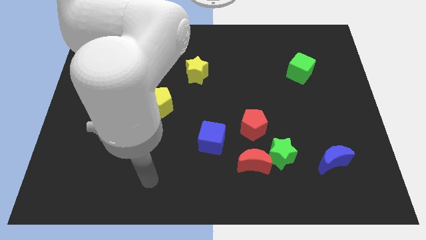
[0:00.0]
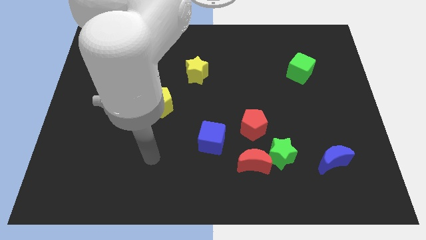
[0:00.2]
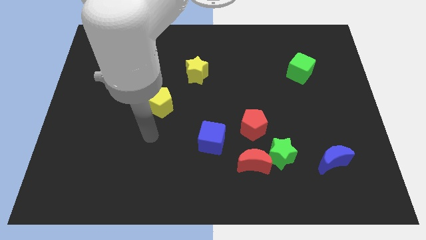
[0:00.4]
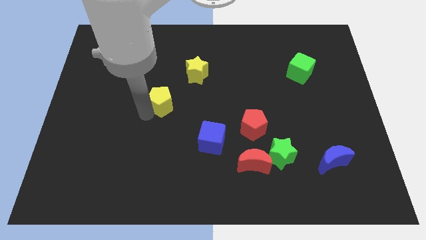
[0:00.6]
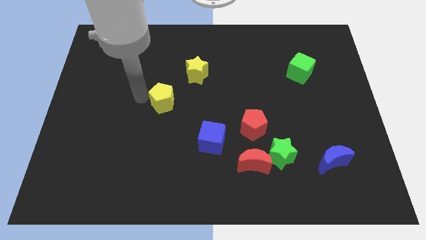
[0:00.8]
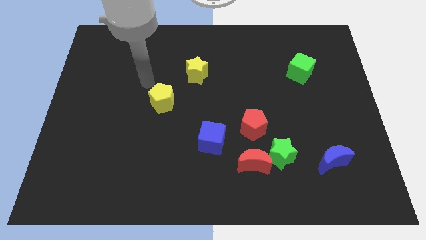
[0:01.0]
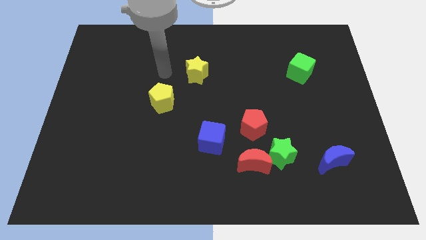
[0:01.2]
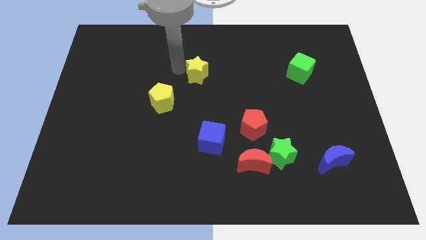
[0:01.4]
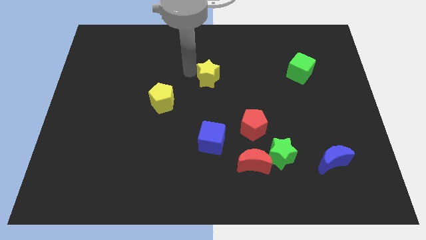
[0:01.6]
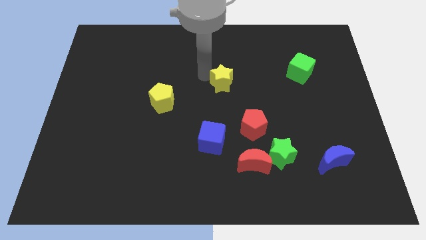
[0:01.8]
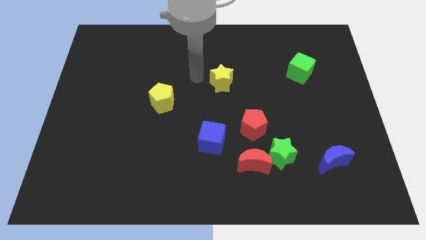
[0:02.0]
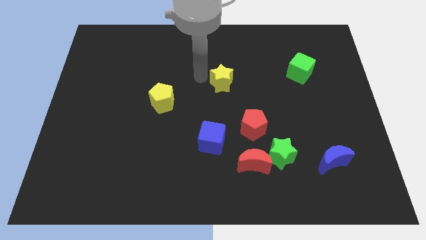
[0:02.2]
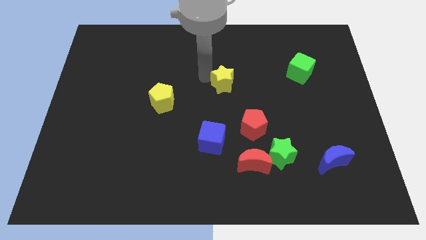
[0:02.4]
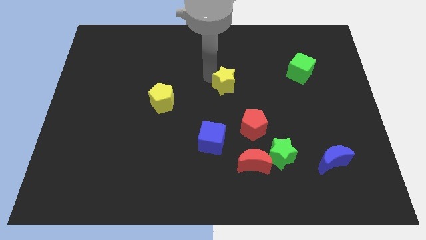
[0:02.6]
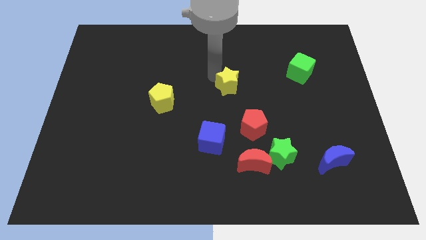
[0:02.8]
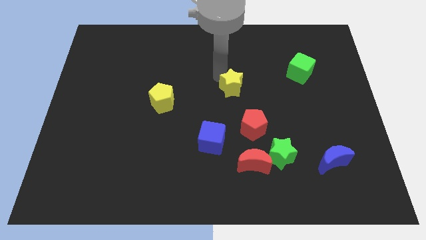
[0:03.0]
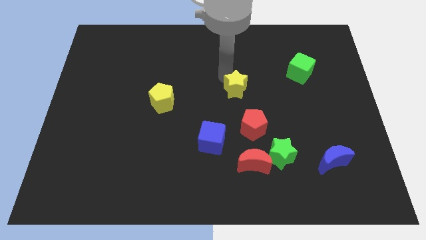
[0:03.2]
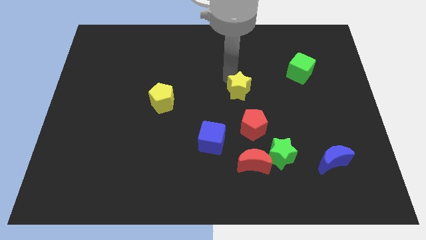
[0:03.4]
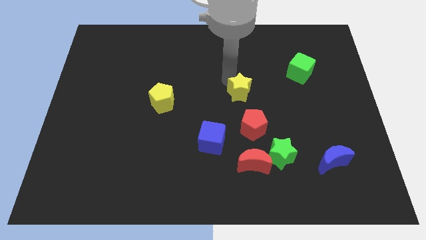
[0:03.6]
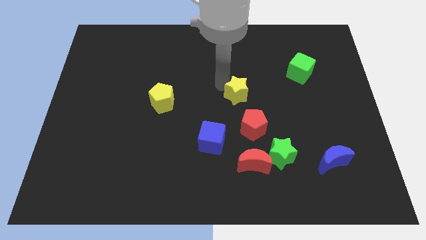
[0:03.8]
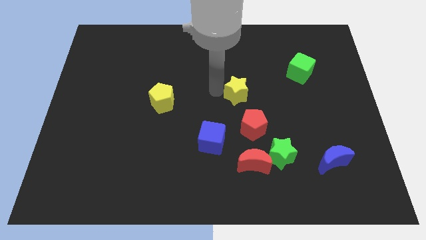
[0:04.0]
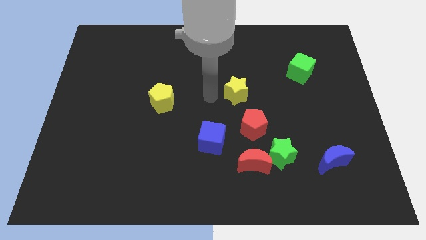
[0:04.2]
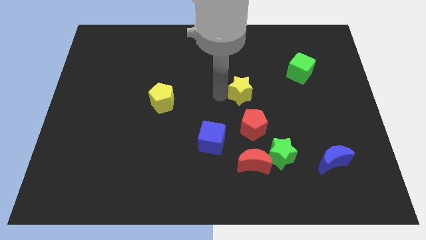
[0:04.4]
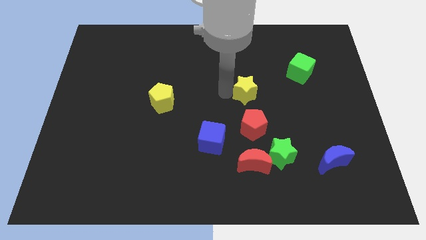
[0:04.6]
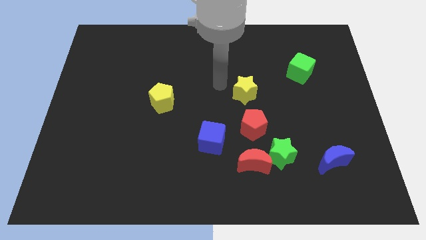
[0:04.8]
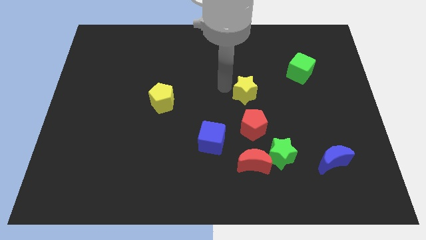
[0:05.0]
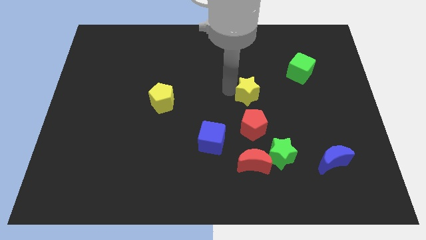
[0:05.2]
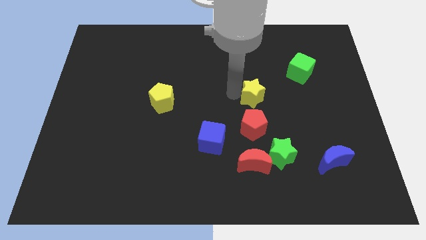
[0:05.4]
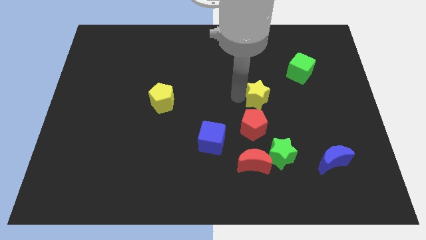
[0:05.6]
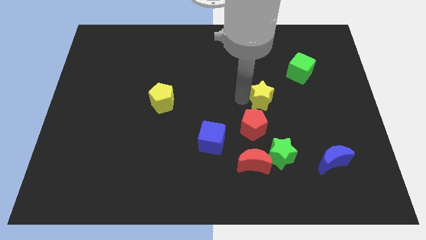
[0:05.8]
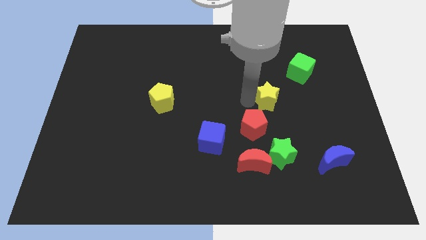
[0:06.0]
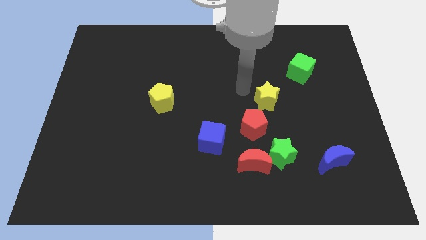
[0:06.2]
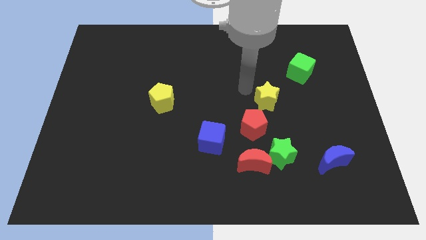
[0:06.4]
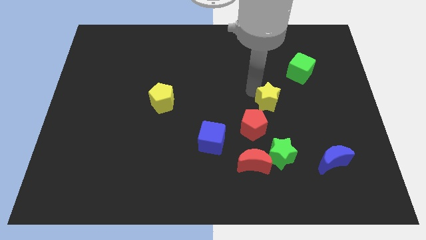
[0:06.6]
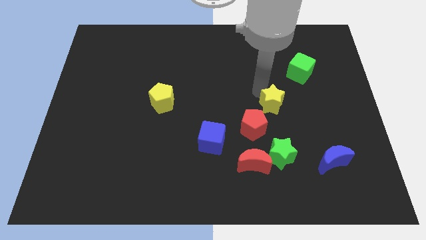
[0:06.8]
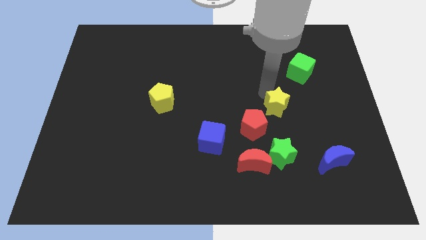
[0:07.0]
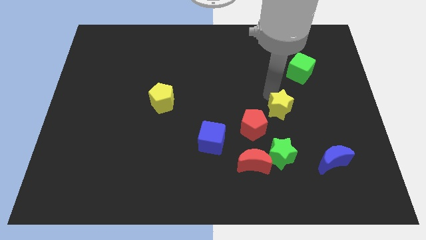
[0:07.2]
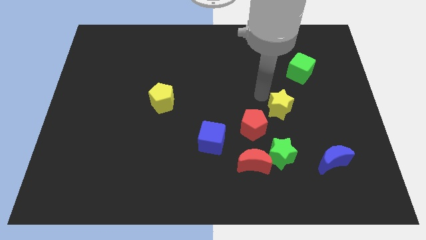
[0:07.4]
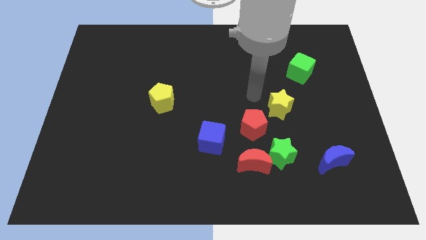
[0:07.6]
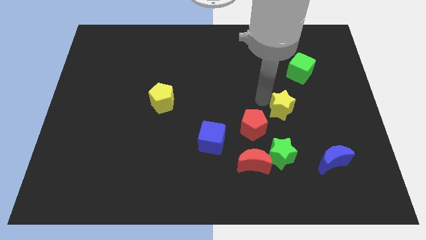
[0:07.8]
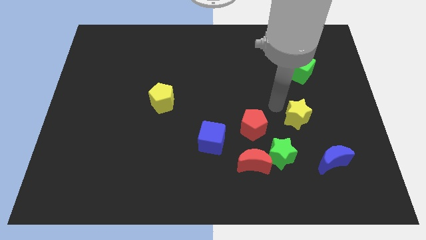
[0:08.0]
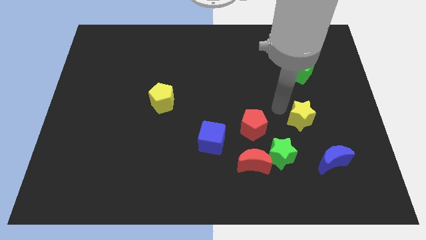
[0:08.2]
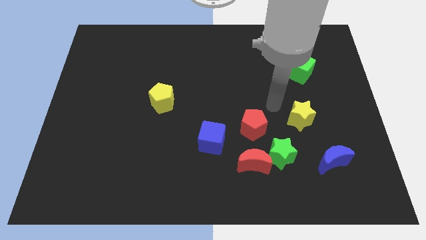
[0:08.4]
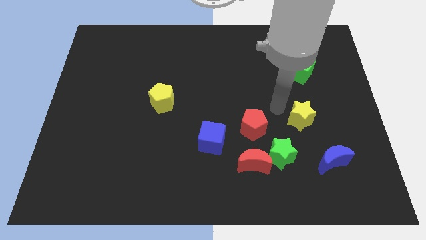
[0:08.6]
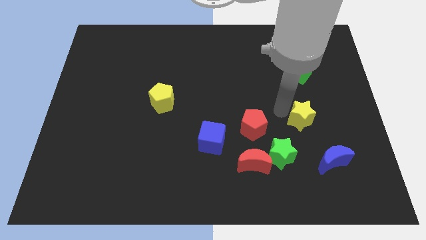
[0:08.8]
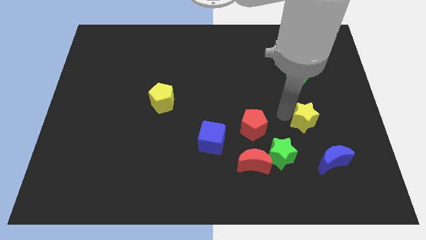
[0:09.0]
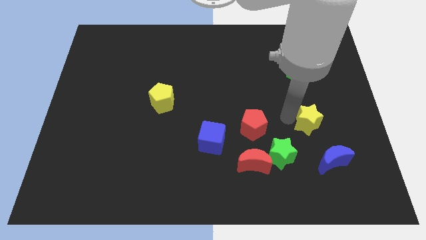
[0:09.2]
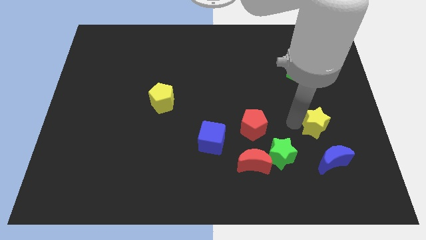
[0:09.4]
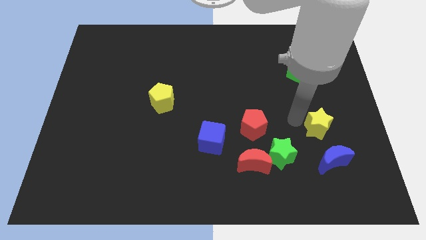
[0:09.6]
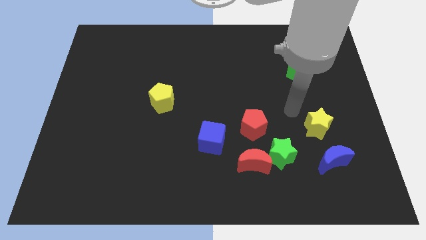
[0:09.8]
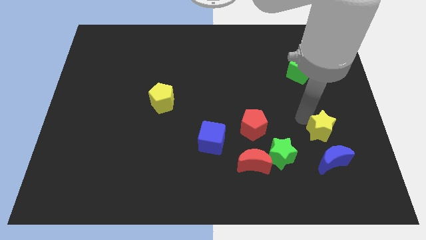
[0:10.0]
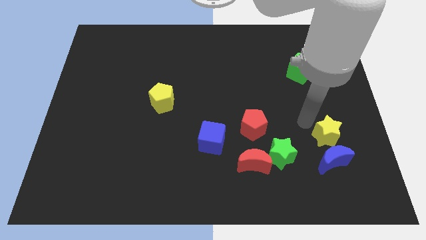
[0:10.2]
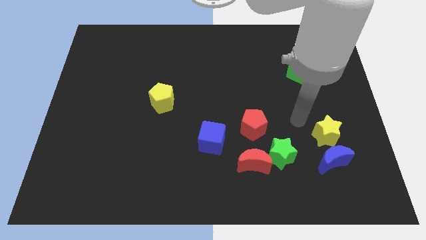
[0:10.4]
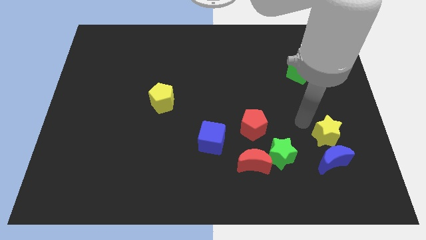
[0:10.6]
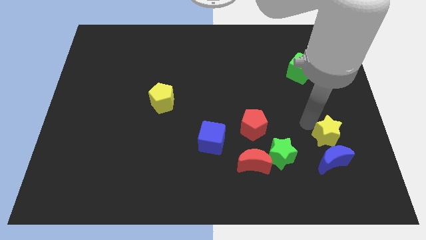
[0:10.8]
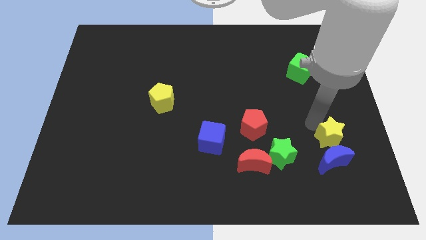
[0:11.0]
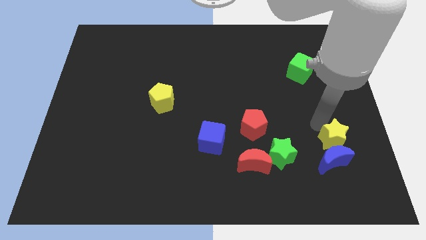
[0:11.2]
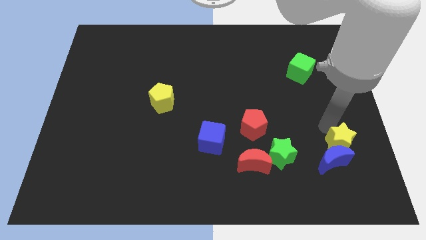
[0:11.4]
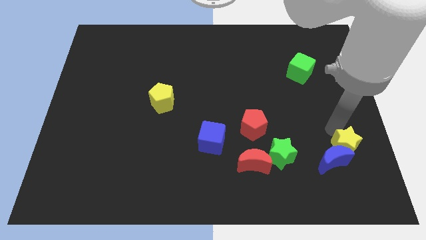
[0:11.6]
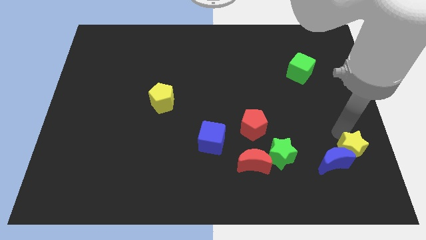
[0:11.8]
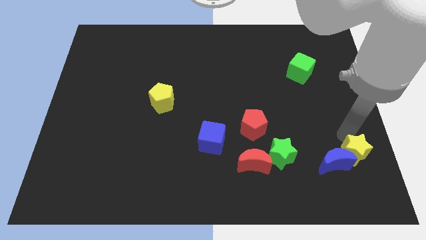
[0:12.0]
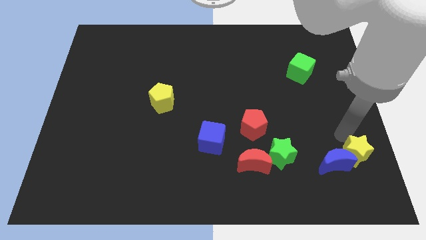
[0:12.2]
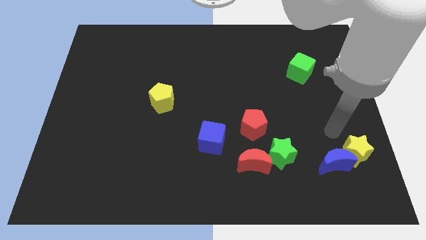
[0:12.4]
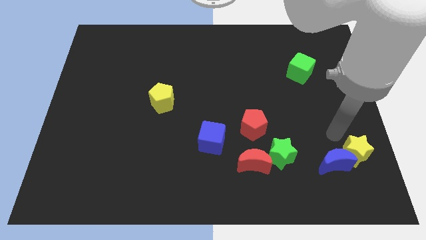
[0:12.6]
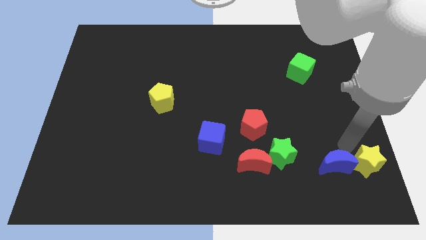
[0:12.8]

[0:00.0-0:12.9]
slide the yellow star to the bottom right of the board

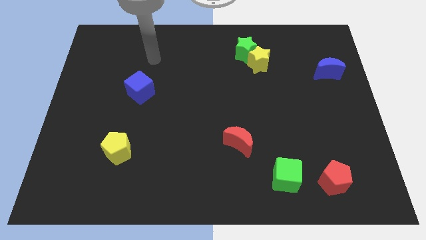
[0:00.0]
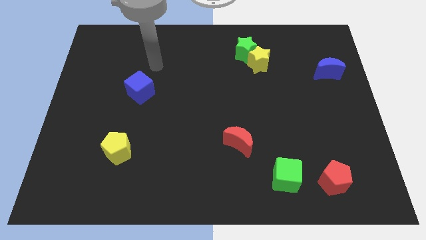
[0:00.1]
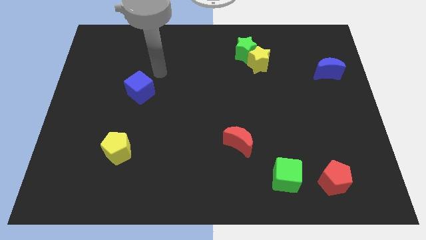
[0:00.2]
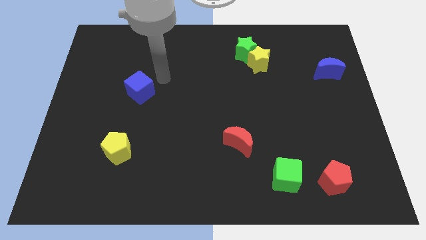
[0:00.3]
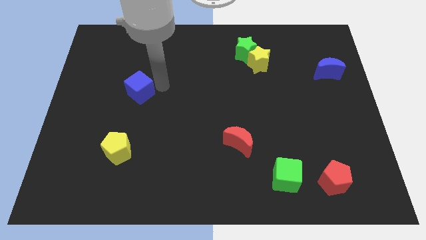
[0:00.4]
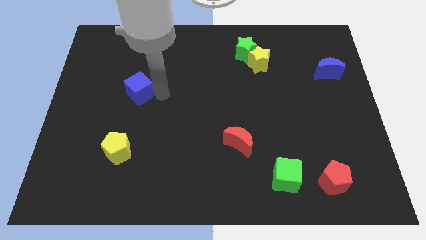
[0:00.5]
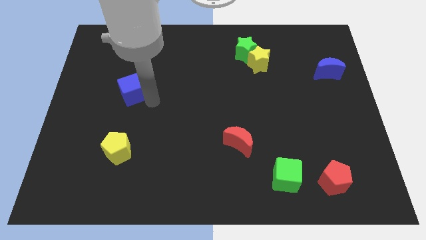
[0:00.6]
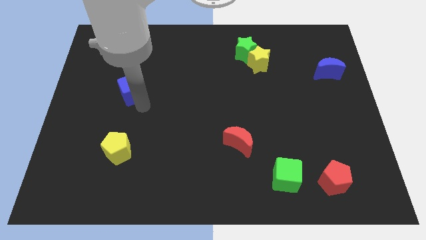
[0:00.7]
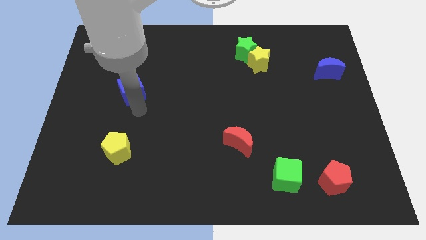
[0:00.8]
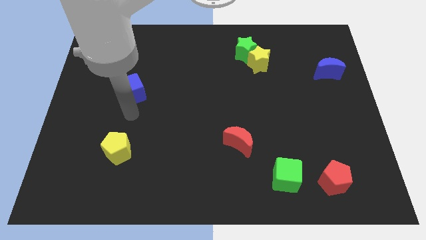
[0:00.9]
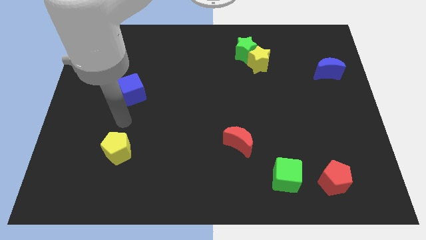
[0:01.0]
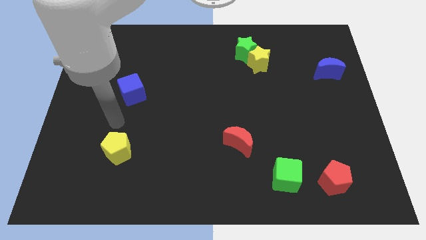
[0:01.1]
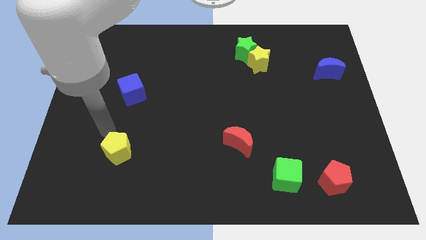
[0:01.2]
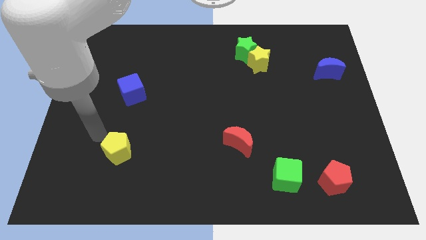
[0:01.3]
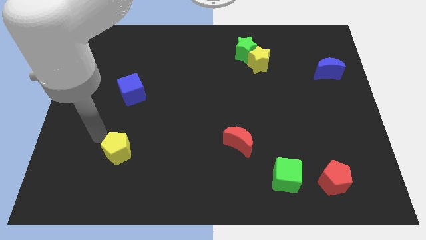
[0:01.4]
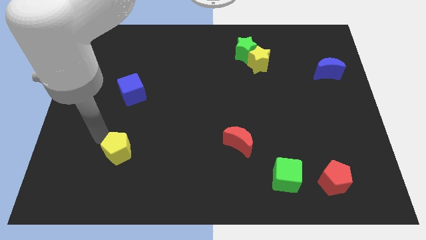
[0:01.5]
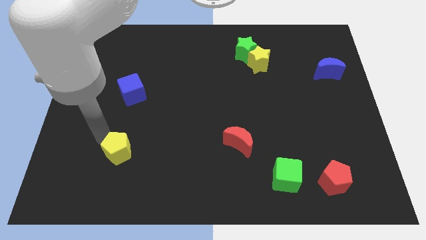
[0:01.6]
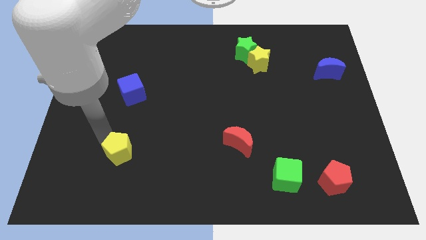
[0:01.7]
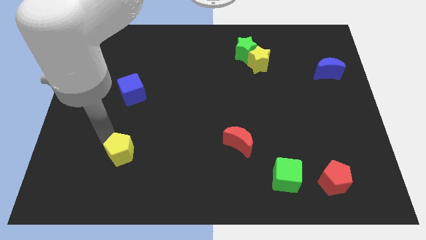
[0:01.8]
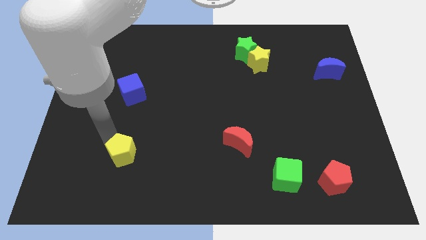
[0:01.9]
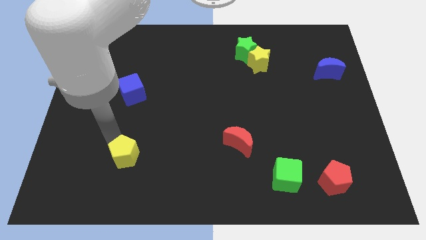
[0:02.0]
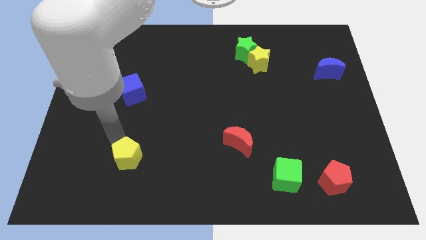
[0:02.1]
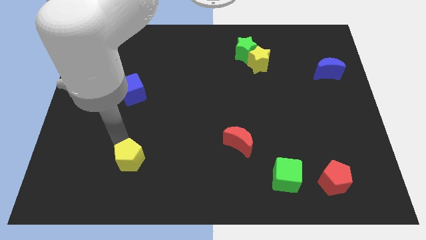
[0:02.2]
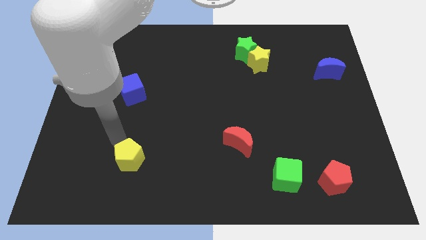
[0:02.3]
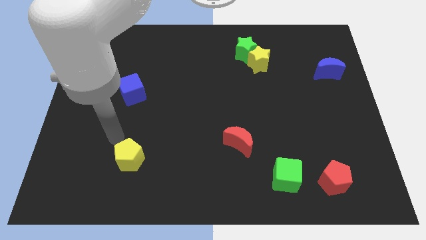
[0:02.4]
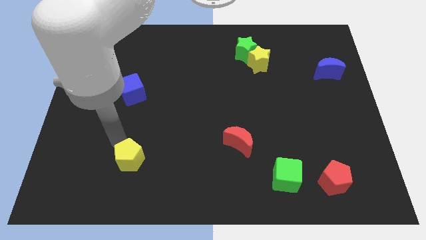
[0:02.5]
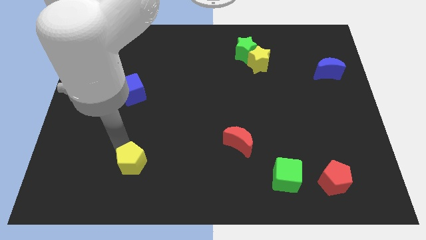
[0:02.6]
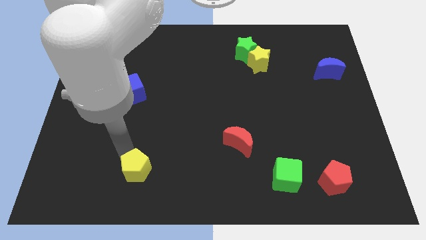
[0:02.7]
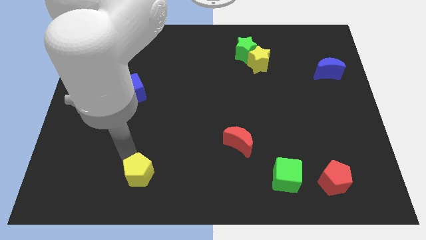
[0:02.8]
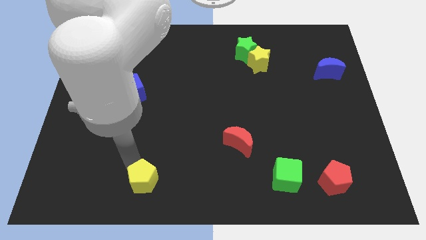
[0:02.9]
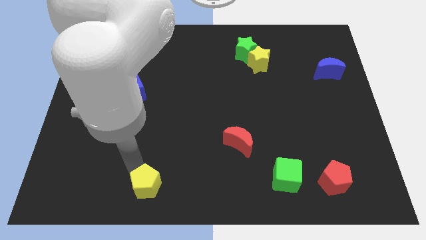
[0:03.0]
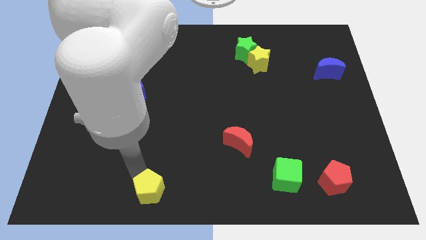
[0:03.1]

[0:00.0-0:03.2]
push the yellow pentagon to the bottom
